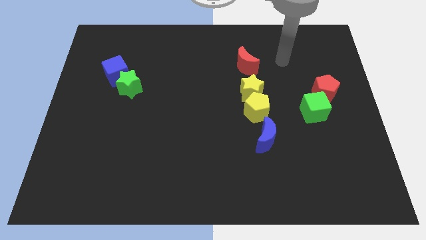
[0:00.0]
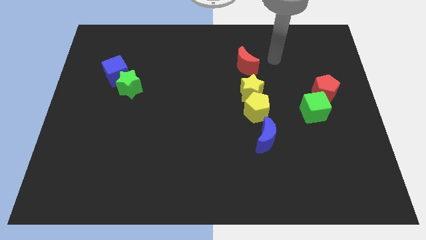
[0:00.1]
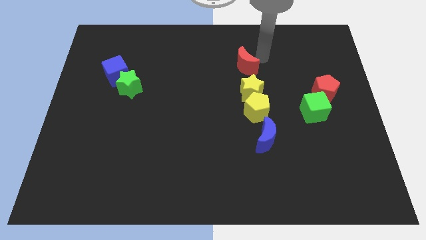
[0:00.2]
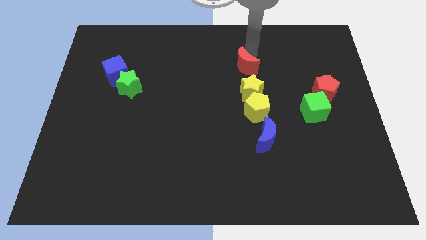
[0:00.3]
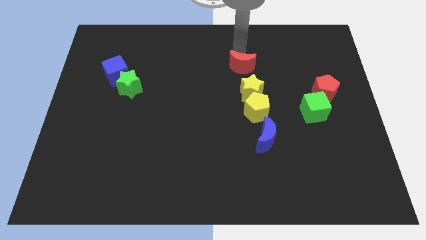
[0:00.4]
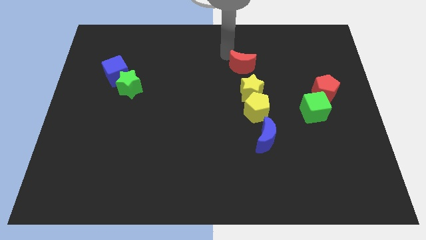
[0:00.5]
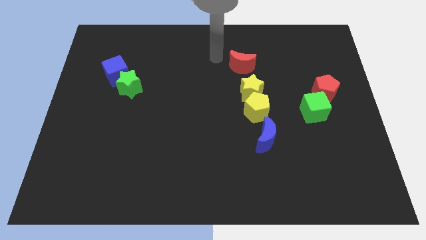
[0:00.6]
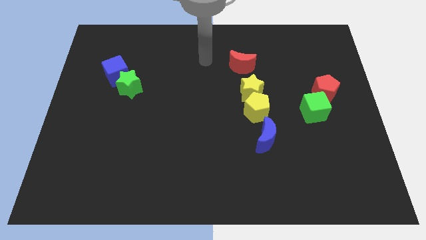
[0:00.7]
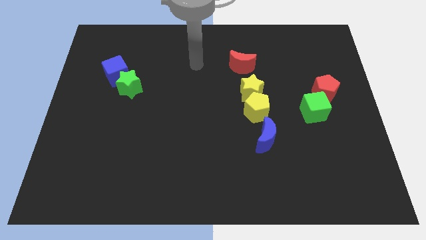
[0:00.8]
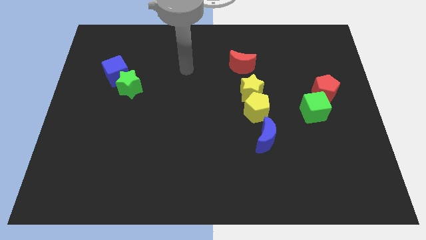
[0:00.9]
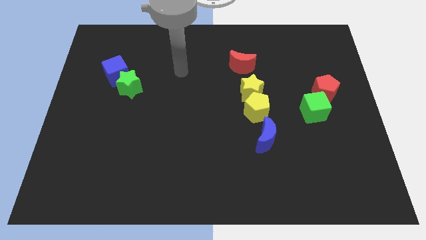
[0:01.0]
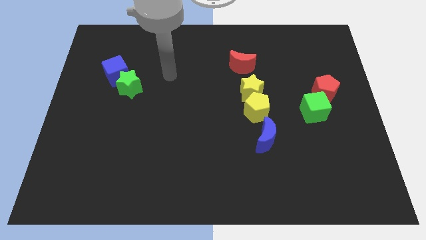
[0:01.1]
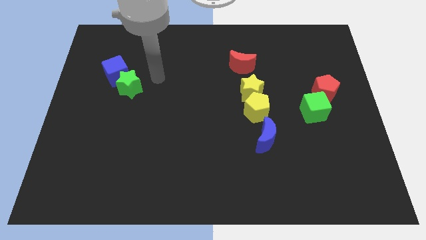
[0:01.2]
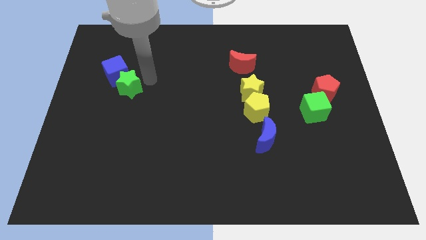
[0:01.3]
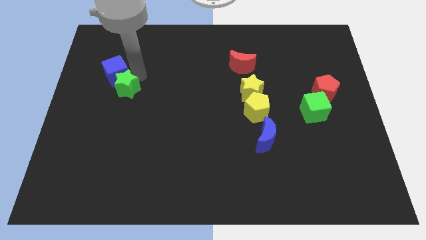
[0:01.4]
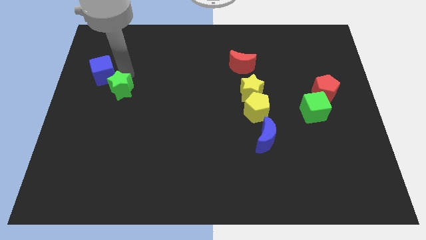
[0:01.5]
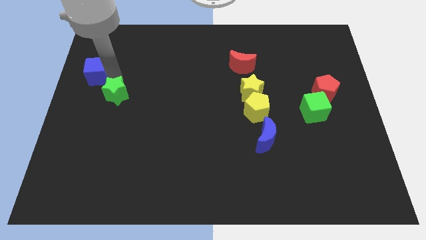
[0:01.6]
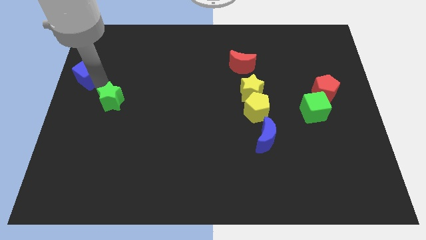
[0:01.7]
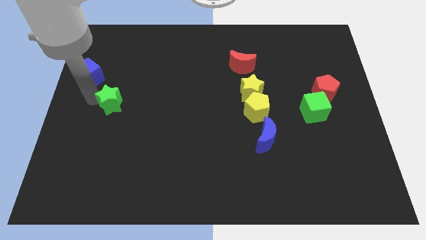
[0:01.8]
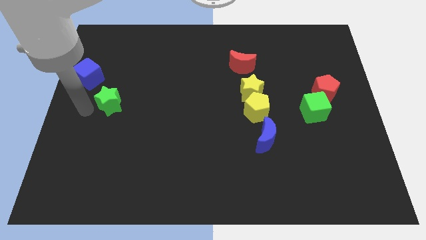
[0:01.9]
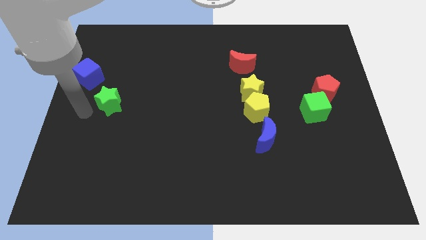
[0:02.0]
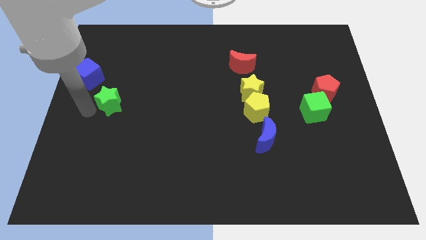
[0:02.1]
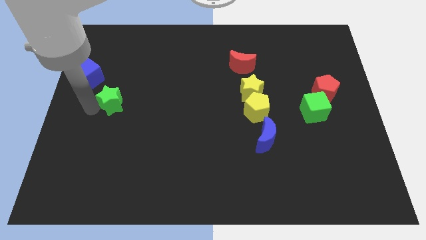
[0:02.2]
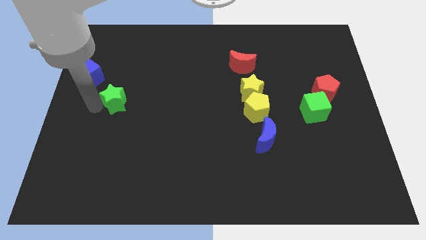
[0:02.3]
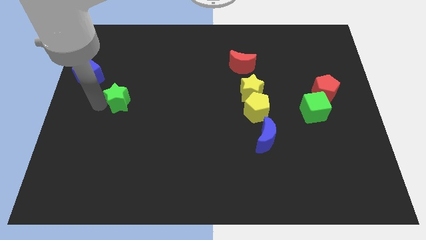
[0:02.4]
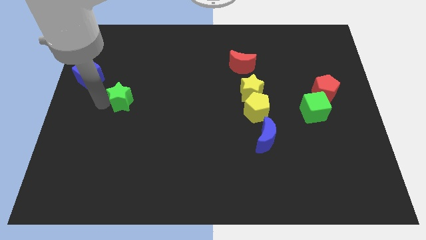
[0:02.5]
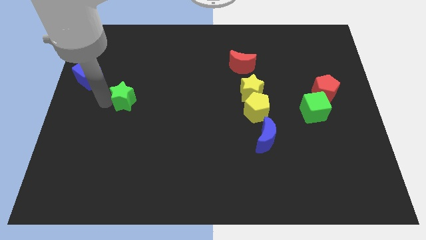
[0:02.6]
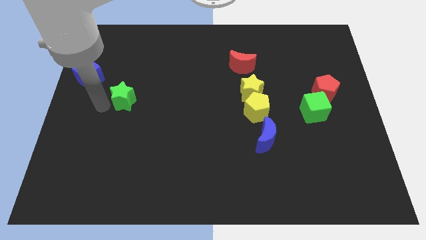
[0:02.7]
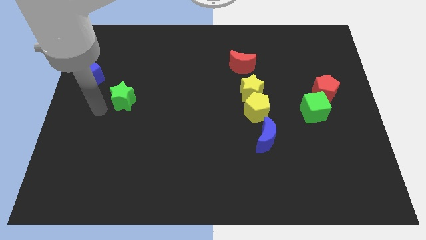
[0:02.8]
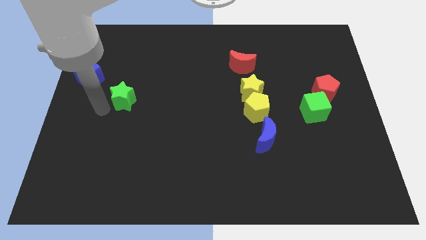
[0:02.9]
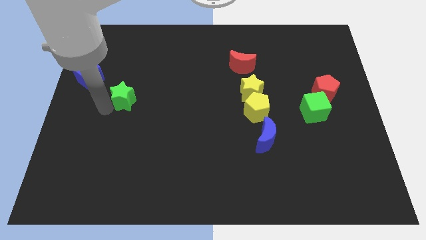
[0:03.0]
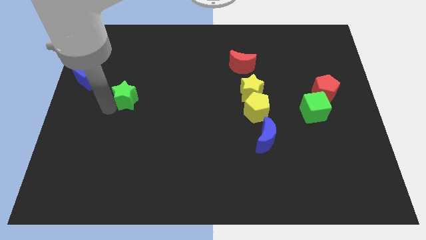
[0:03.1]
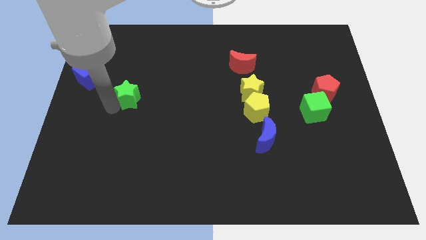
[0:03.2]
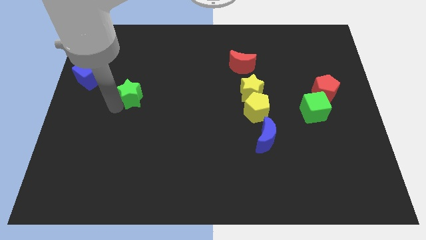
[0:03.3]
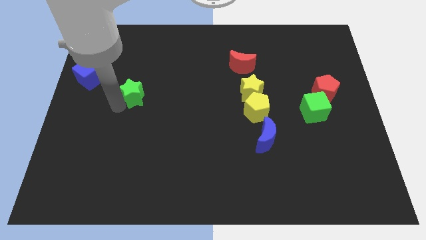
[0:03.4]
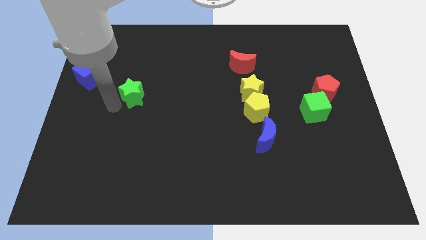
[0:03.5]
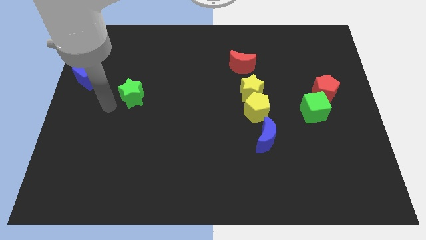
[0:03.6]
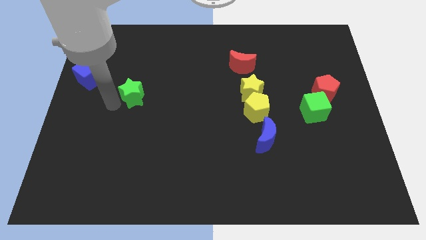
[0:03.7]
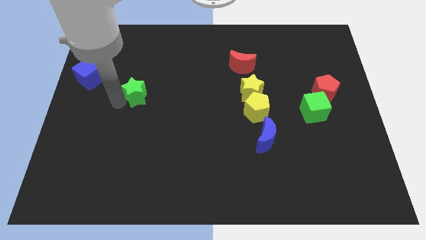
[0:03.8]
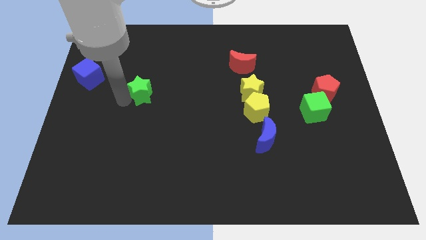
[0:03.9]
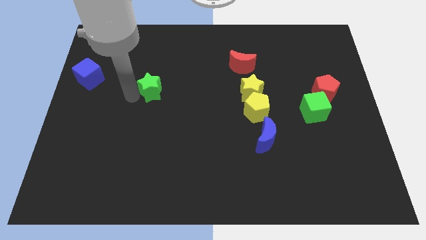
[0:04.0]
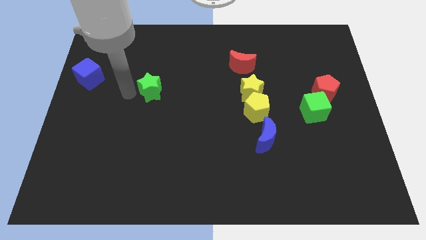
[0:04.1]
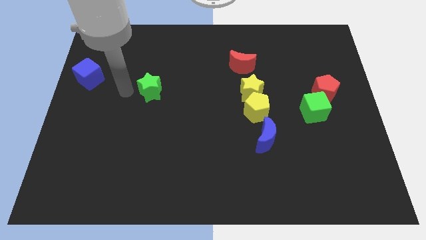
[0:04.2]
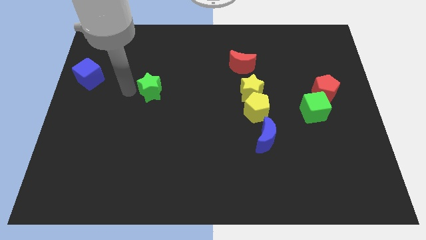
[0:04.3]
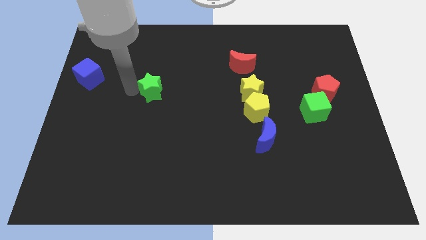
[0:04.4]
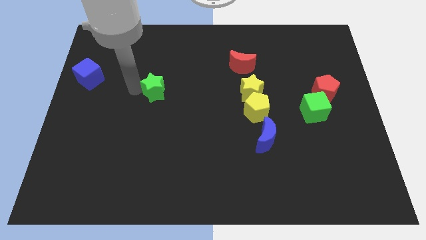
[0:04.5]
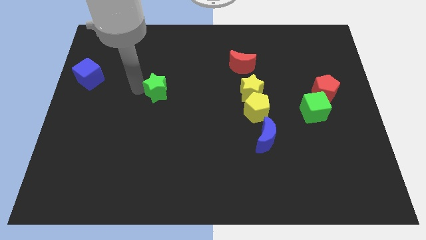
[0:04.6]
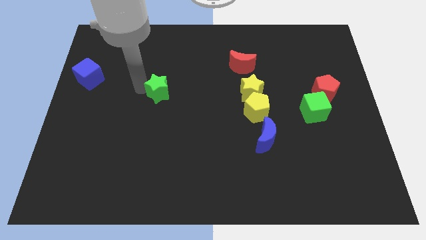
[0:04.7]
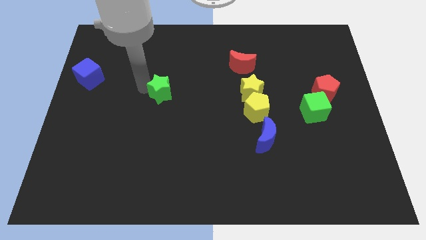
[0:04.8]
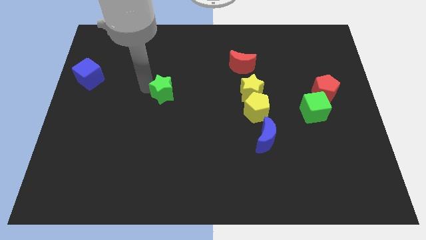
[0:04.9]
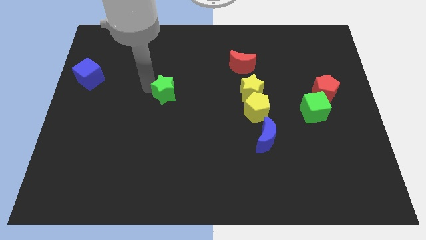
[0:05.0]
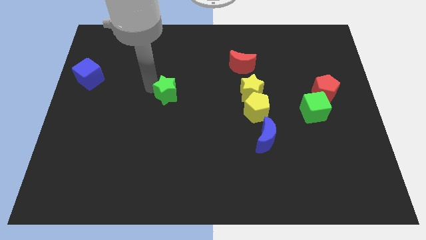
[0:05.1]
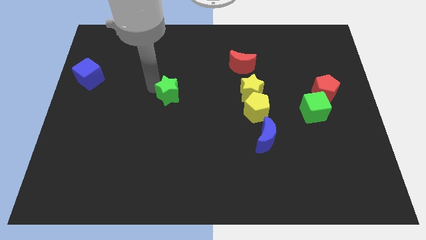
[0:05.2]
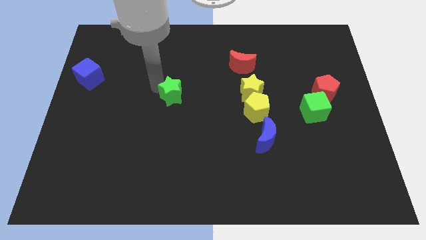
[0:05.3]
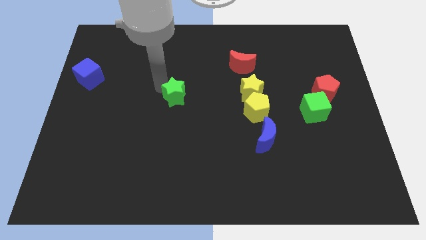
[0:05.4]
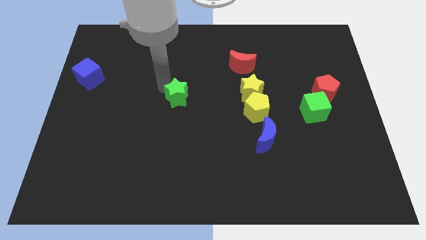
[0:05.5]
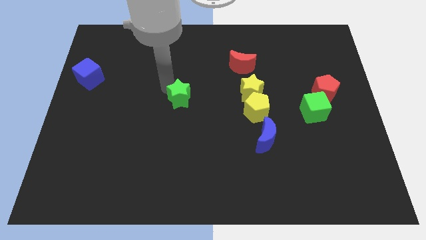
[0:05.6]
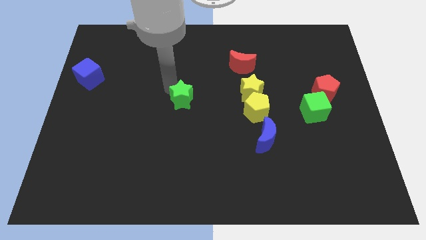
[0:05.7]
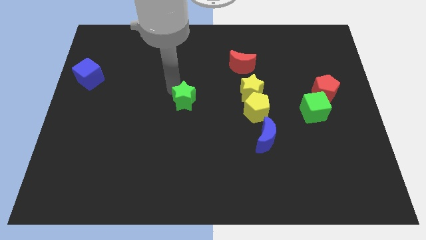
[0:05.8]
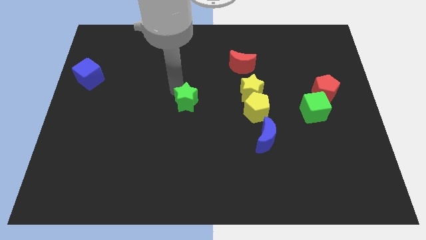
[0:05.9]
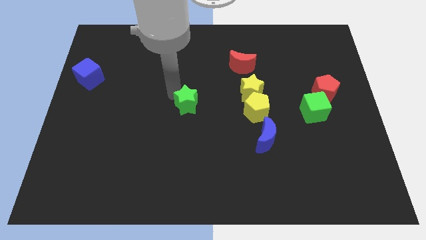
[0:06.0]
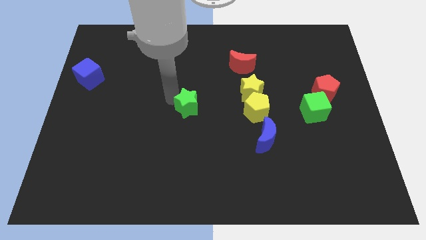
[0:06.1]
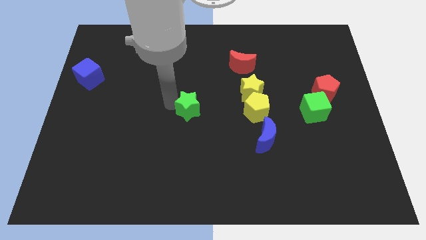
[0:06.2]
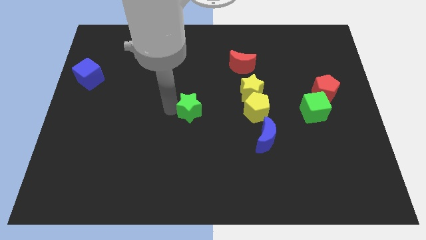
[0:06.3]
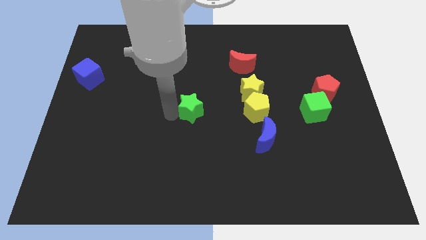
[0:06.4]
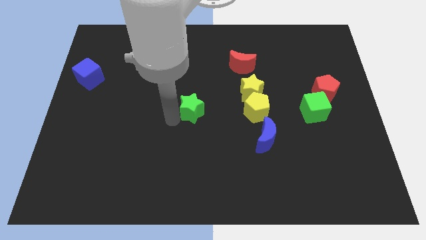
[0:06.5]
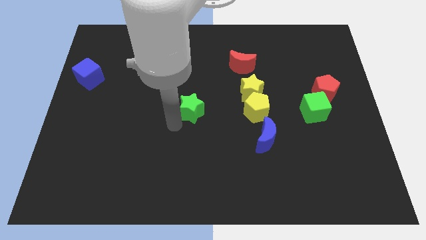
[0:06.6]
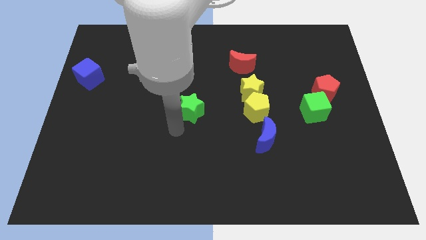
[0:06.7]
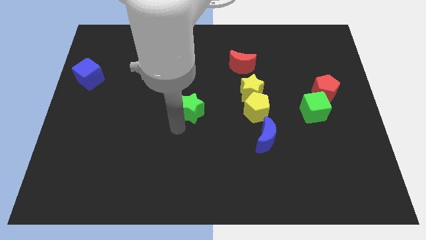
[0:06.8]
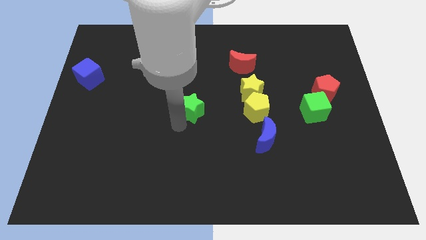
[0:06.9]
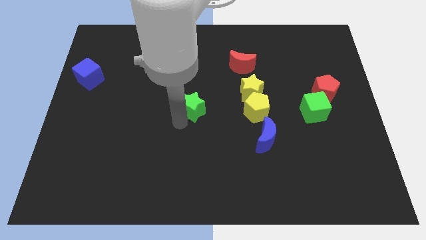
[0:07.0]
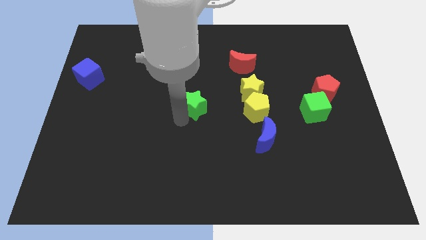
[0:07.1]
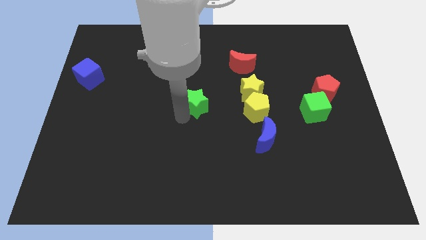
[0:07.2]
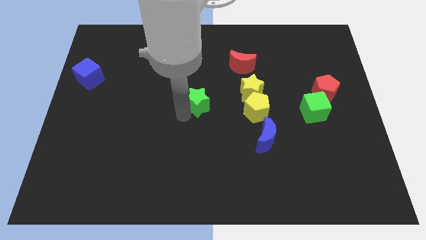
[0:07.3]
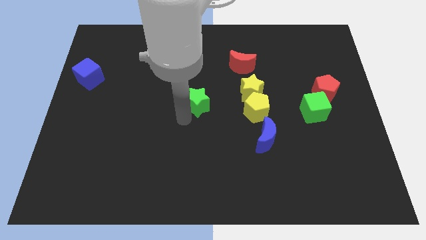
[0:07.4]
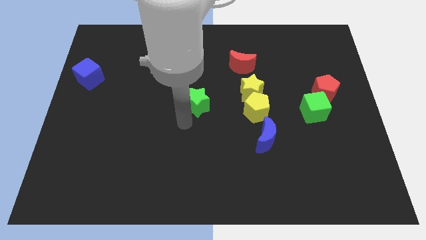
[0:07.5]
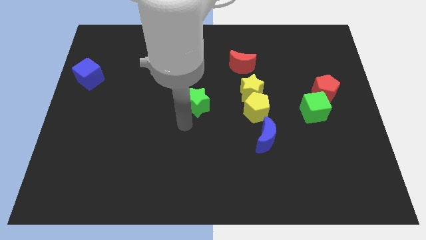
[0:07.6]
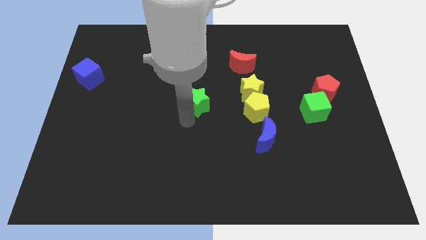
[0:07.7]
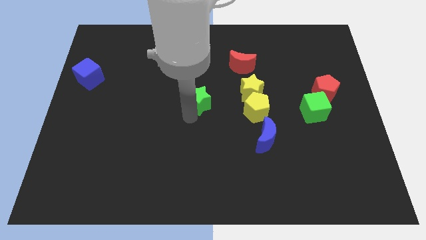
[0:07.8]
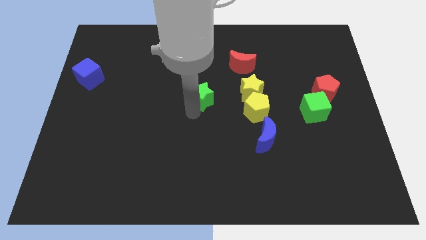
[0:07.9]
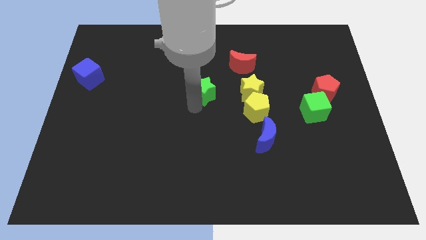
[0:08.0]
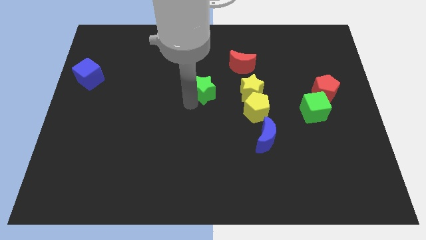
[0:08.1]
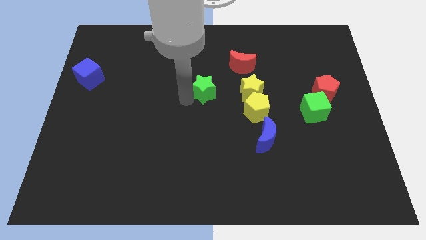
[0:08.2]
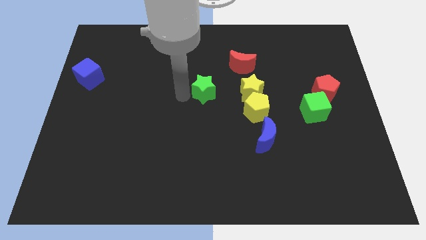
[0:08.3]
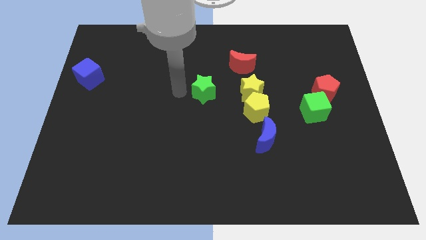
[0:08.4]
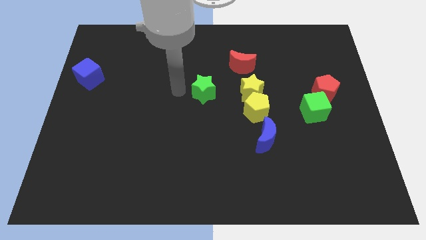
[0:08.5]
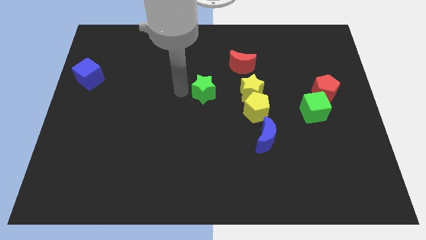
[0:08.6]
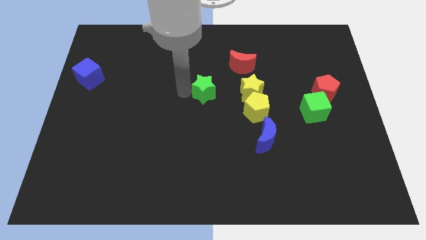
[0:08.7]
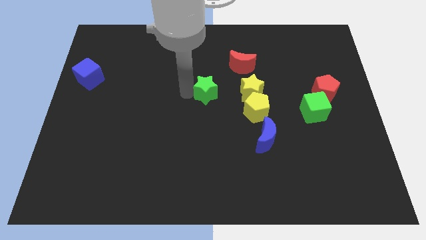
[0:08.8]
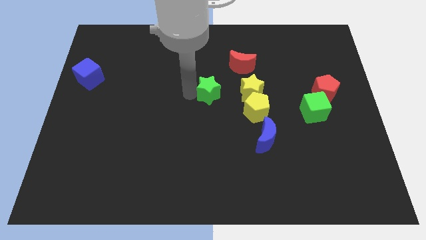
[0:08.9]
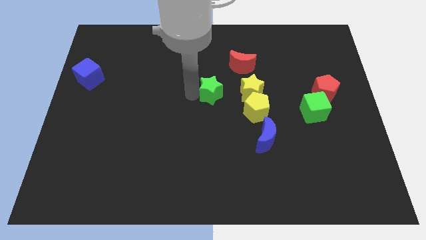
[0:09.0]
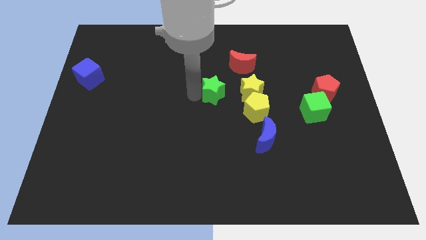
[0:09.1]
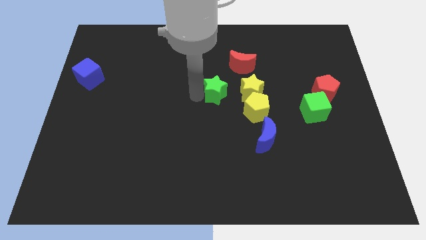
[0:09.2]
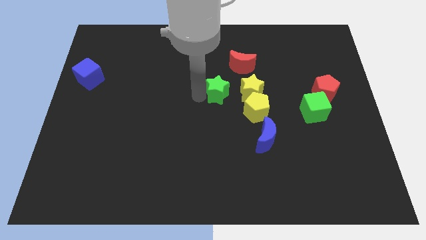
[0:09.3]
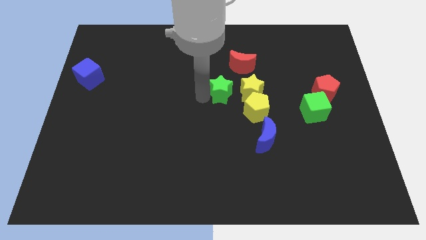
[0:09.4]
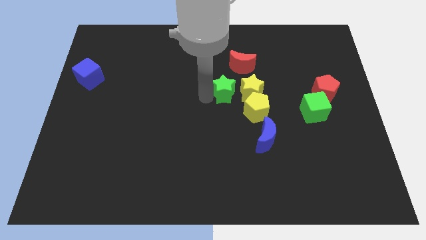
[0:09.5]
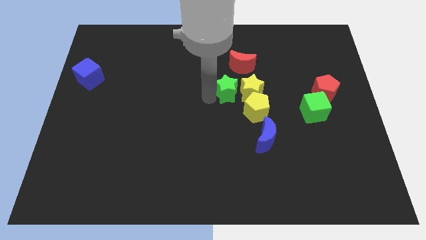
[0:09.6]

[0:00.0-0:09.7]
slide the green star towards the yellow star
